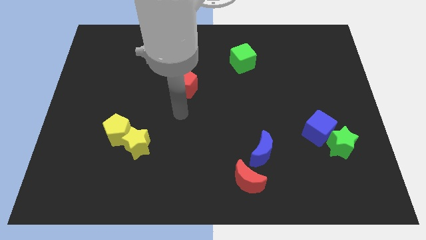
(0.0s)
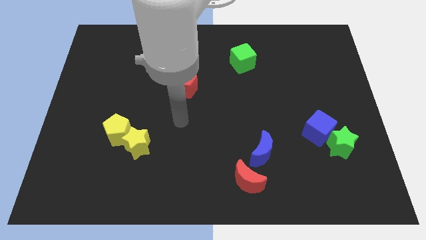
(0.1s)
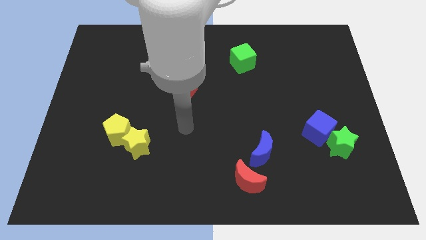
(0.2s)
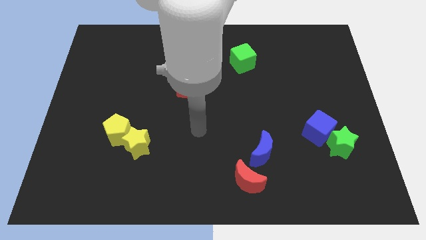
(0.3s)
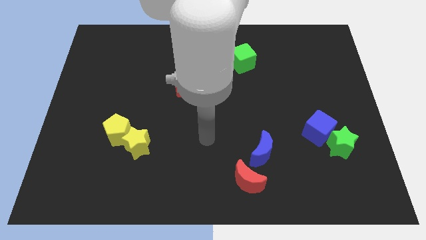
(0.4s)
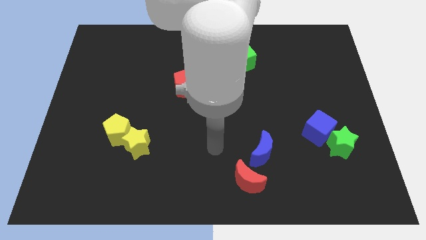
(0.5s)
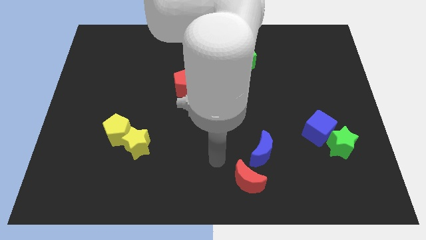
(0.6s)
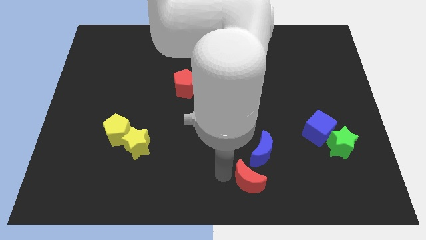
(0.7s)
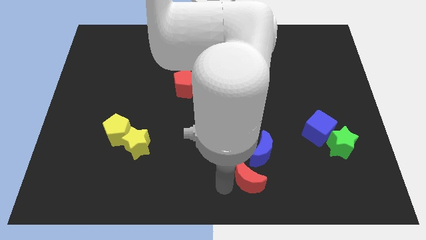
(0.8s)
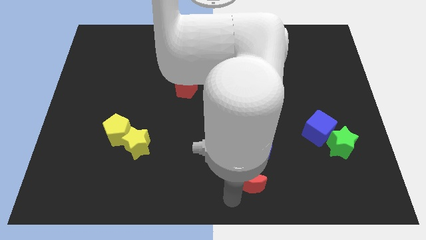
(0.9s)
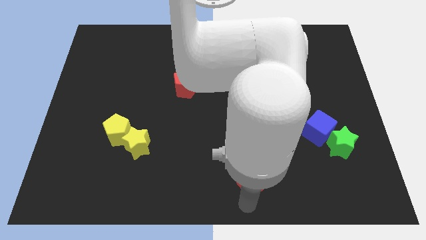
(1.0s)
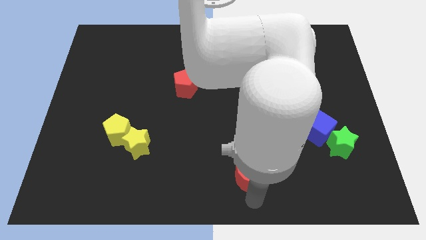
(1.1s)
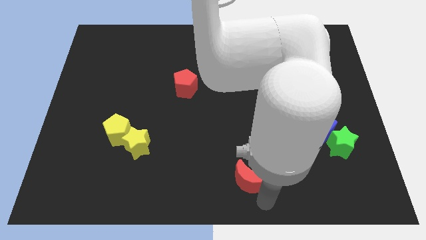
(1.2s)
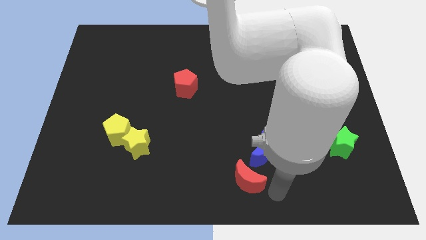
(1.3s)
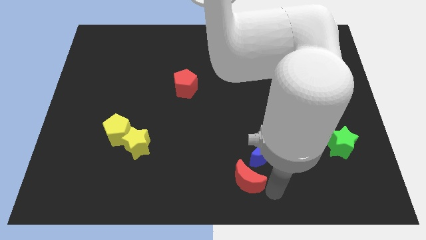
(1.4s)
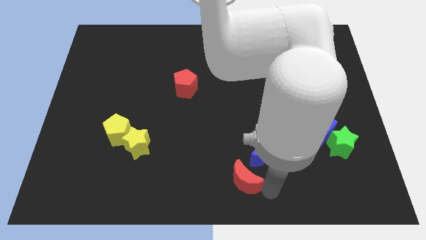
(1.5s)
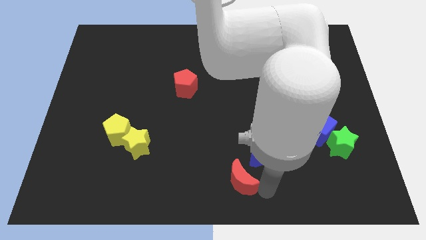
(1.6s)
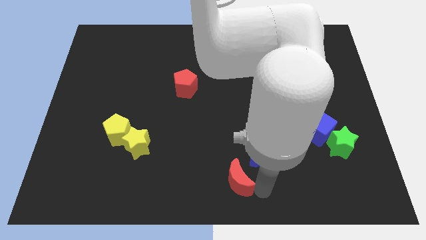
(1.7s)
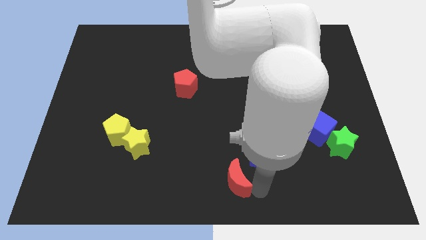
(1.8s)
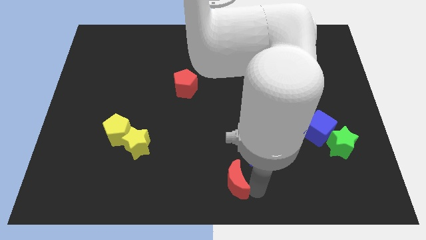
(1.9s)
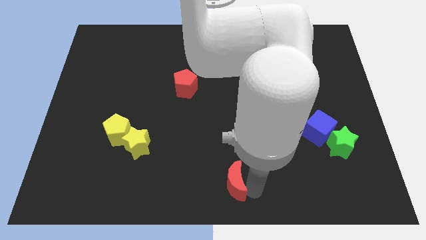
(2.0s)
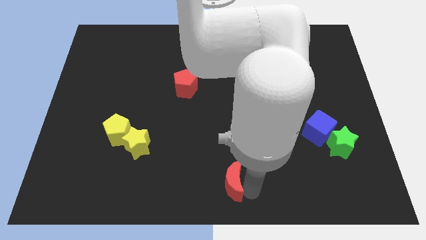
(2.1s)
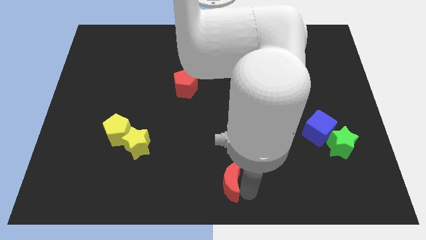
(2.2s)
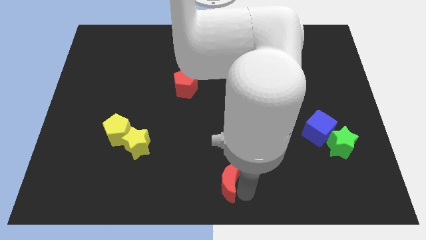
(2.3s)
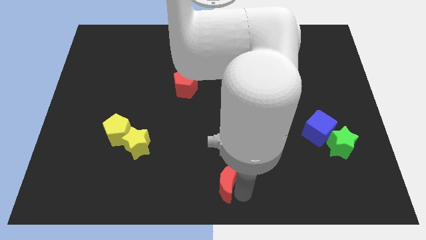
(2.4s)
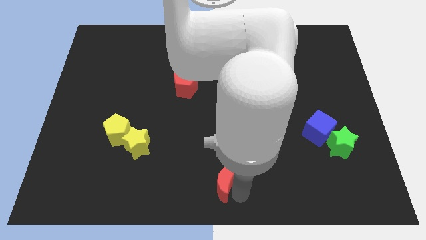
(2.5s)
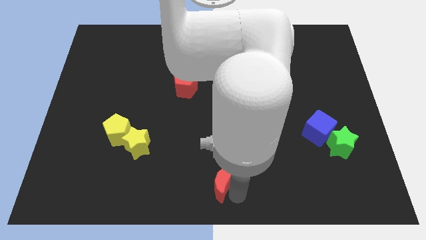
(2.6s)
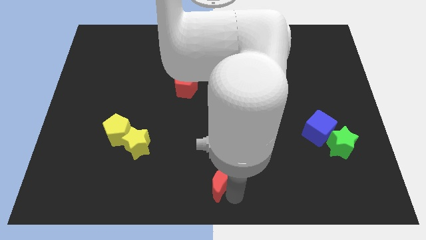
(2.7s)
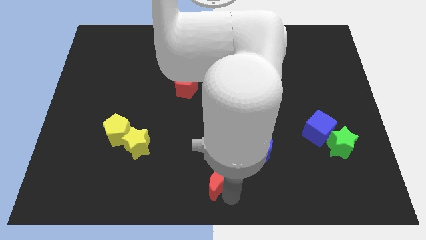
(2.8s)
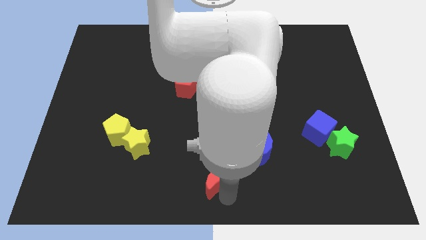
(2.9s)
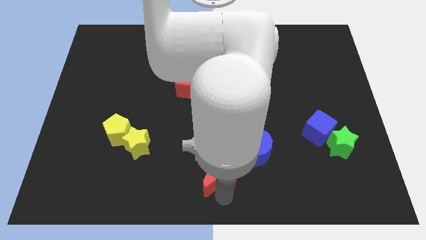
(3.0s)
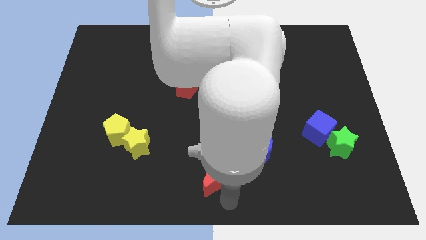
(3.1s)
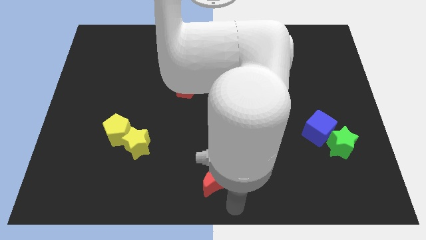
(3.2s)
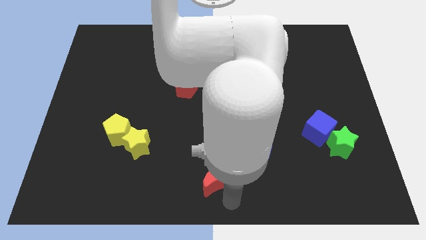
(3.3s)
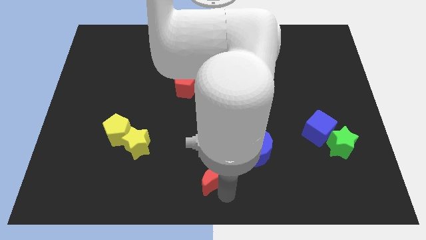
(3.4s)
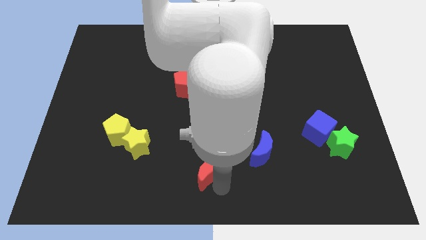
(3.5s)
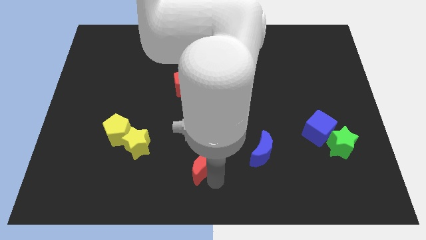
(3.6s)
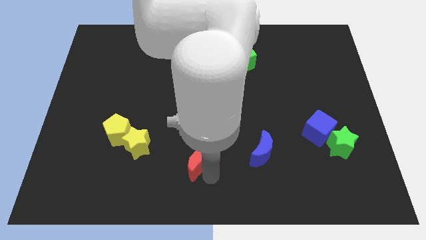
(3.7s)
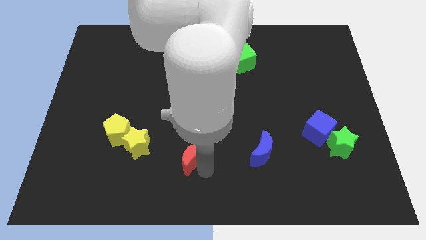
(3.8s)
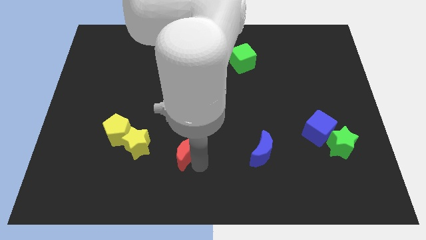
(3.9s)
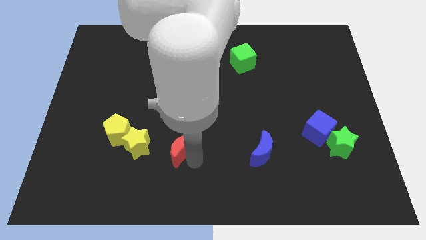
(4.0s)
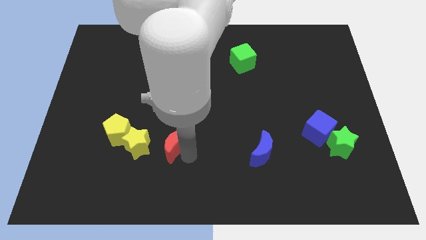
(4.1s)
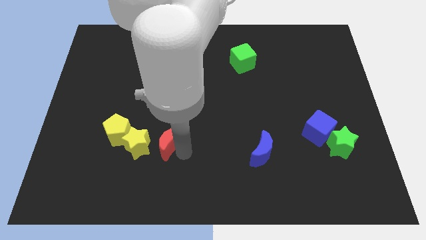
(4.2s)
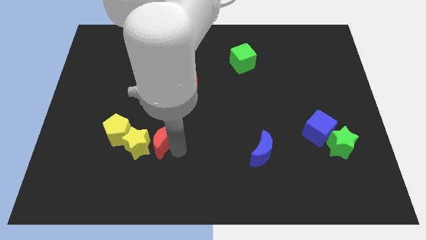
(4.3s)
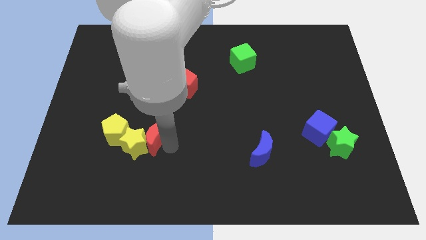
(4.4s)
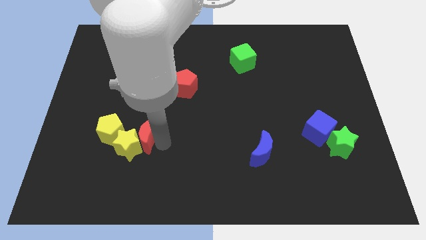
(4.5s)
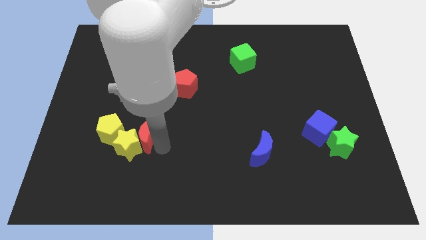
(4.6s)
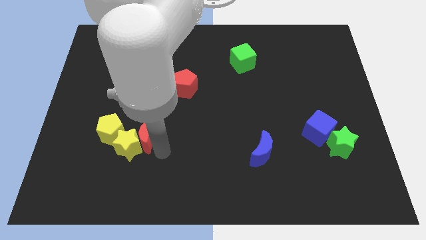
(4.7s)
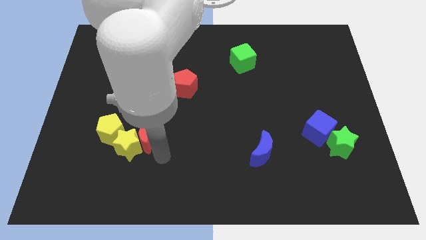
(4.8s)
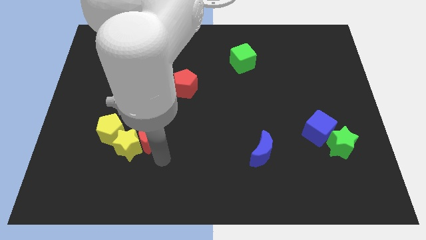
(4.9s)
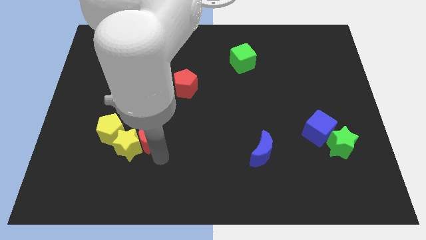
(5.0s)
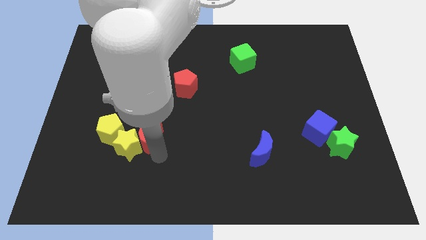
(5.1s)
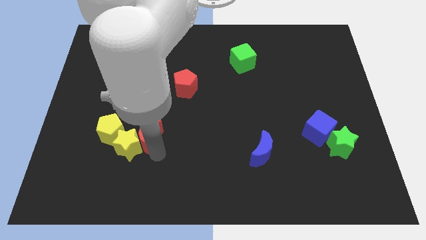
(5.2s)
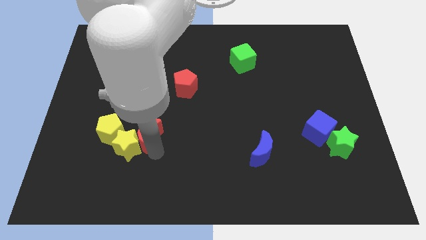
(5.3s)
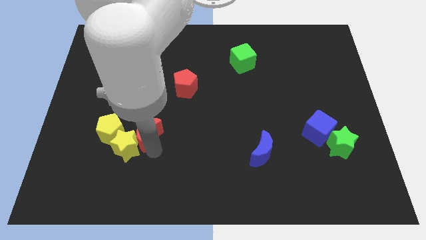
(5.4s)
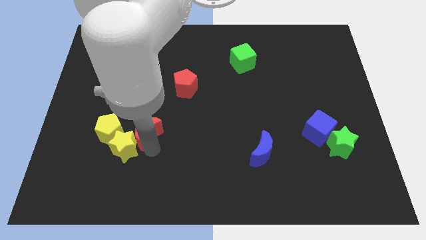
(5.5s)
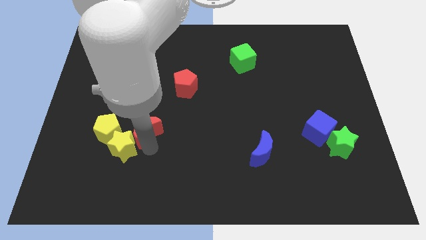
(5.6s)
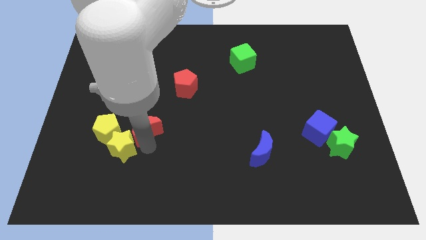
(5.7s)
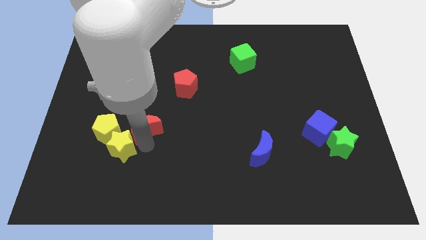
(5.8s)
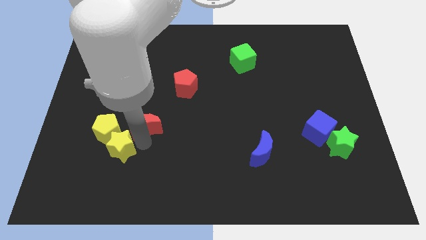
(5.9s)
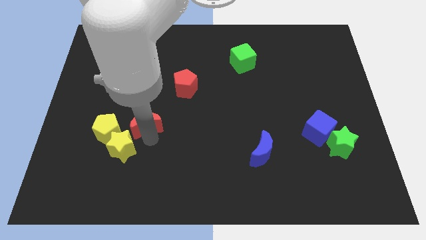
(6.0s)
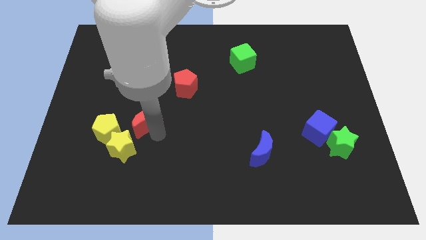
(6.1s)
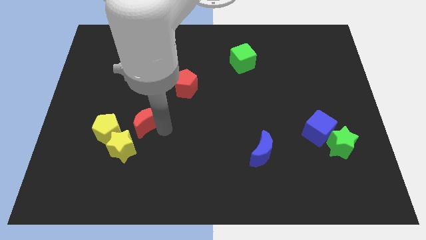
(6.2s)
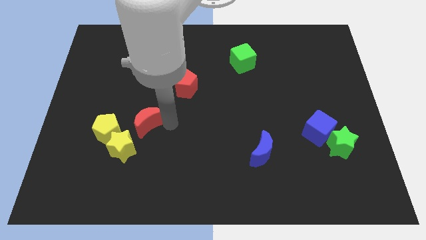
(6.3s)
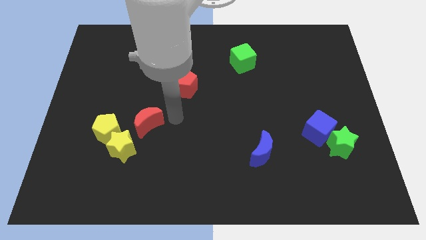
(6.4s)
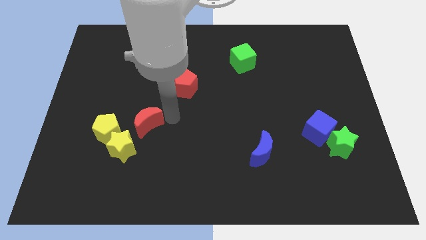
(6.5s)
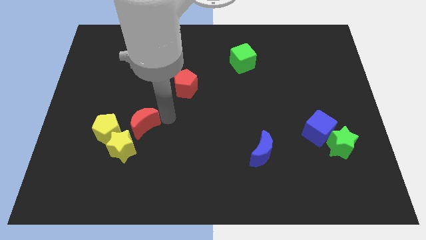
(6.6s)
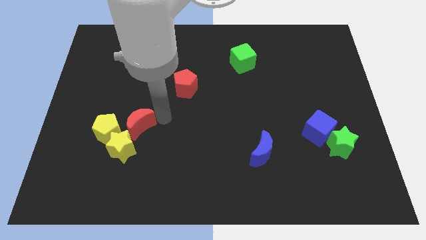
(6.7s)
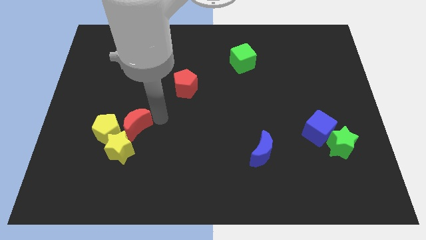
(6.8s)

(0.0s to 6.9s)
push the red moon to the yellow pentagon

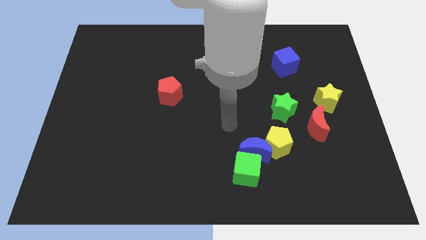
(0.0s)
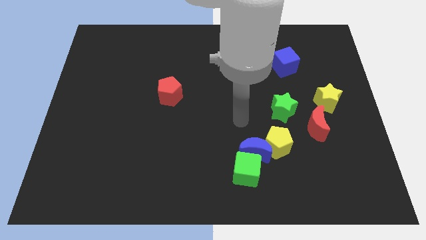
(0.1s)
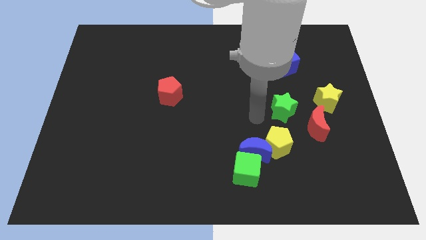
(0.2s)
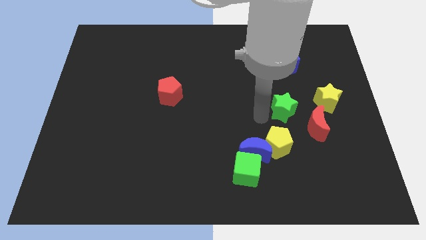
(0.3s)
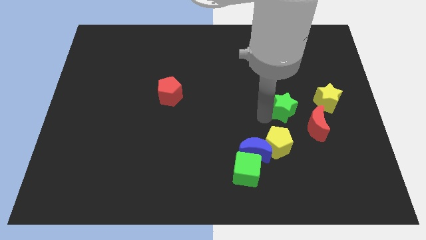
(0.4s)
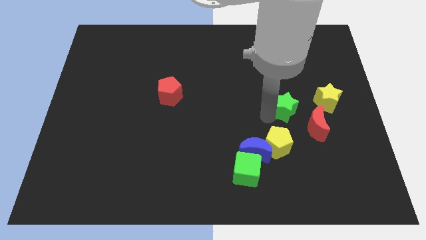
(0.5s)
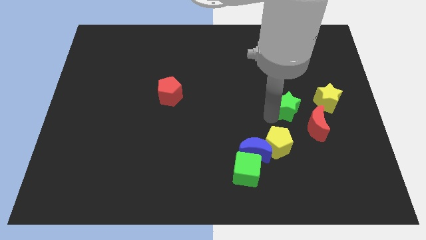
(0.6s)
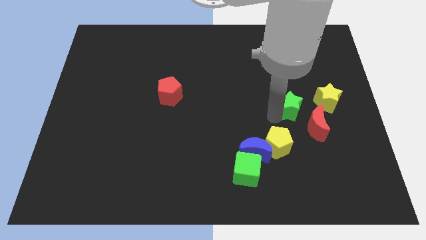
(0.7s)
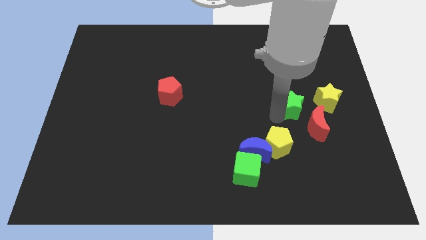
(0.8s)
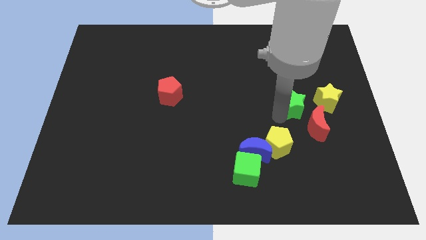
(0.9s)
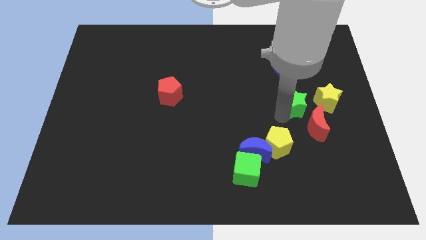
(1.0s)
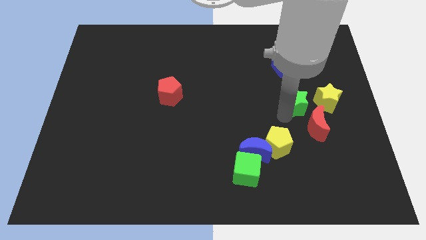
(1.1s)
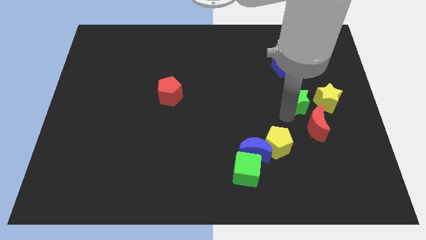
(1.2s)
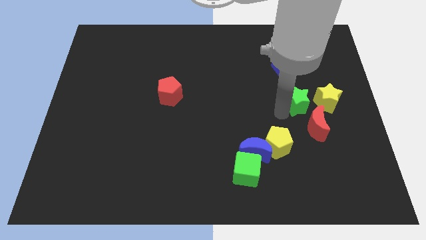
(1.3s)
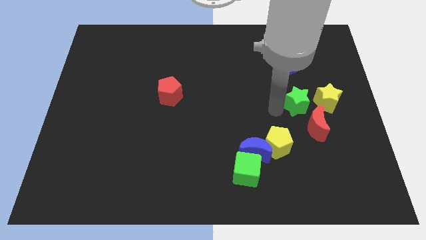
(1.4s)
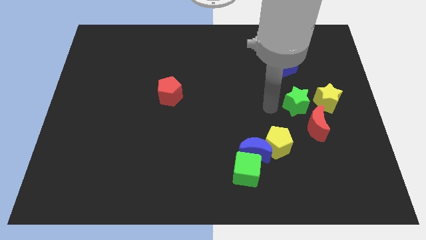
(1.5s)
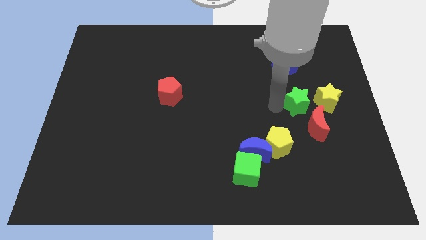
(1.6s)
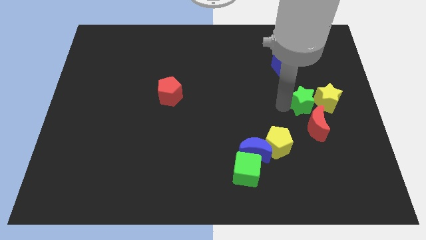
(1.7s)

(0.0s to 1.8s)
move the green star towards the yellow star
